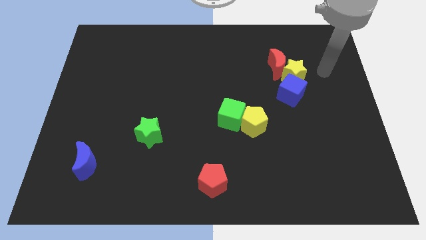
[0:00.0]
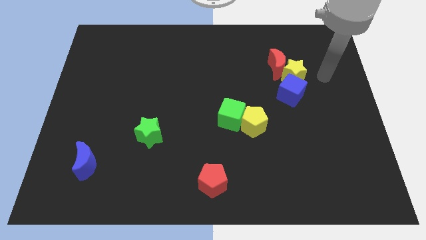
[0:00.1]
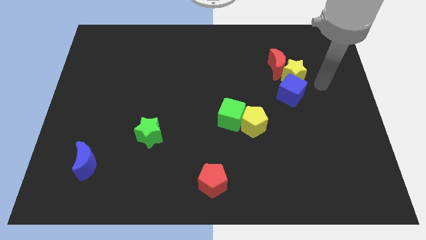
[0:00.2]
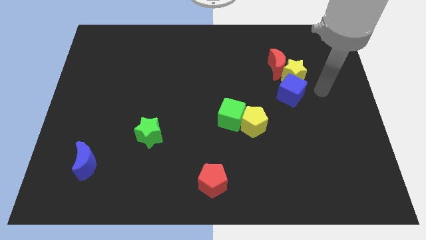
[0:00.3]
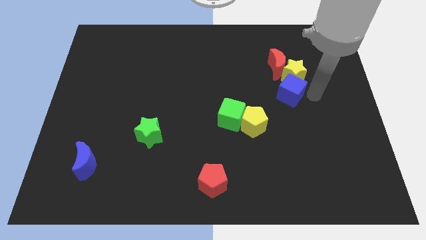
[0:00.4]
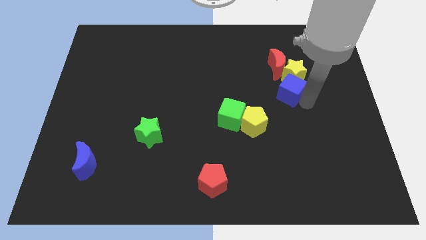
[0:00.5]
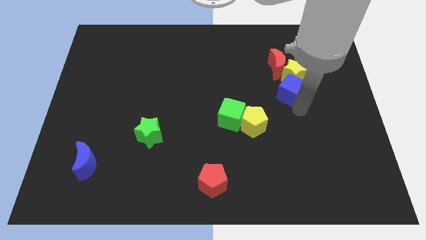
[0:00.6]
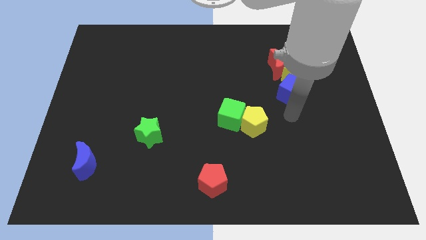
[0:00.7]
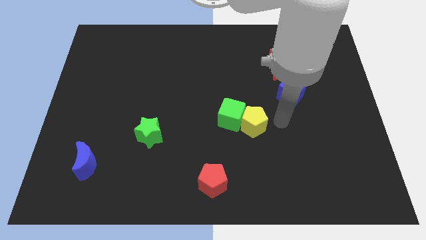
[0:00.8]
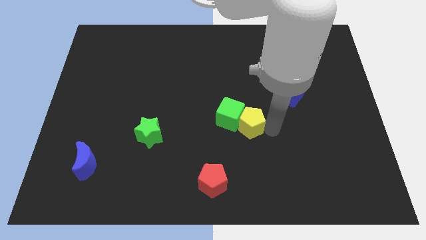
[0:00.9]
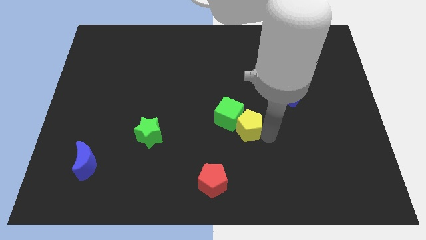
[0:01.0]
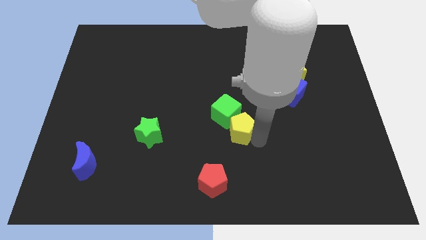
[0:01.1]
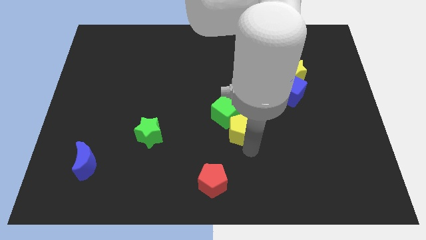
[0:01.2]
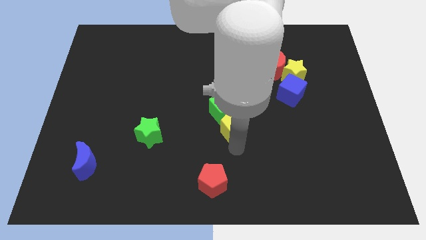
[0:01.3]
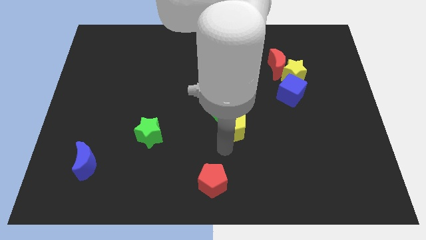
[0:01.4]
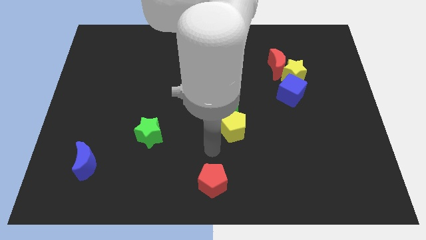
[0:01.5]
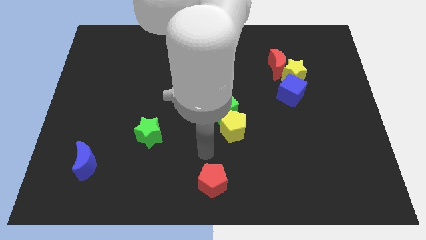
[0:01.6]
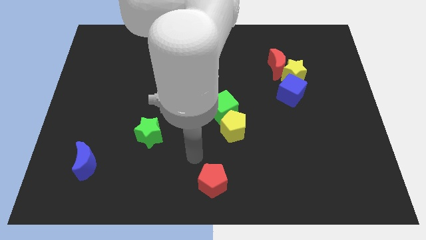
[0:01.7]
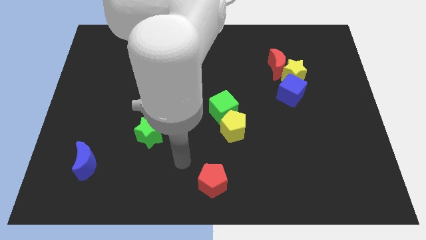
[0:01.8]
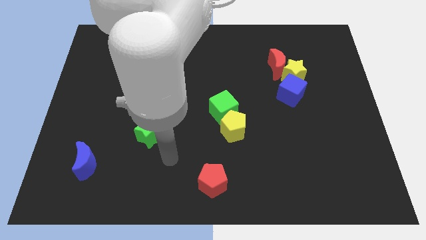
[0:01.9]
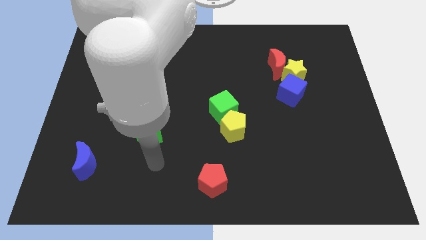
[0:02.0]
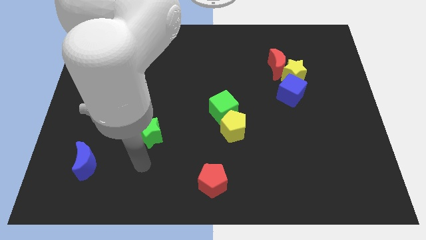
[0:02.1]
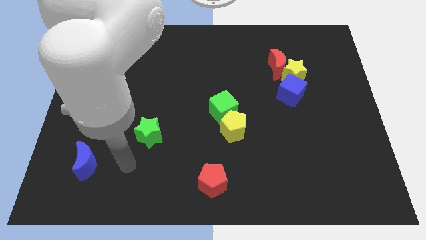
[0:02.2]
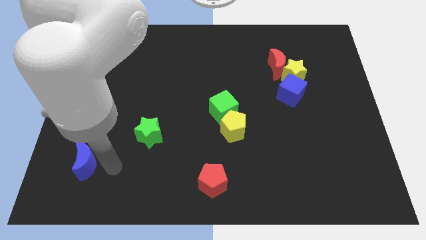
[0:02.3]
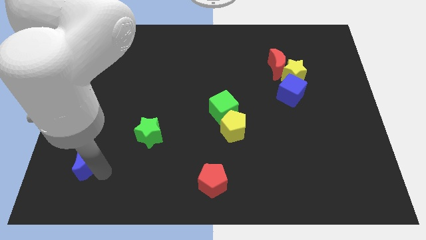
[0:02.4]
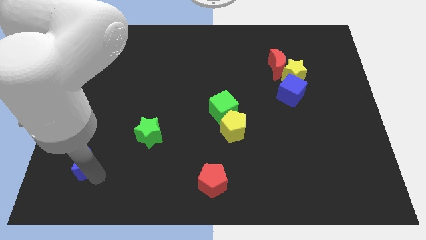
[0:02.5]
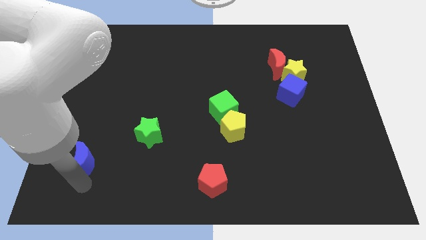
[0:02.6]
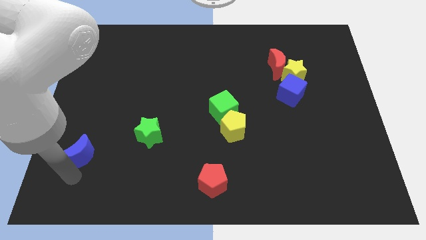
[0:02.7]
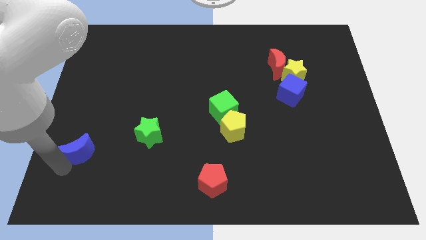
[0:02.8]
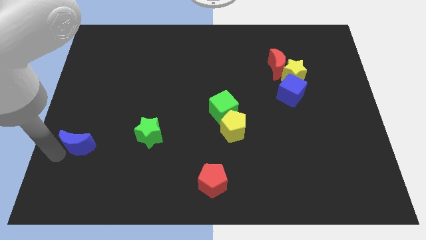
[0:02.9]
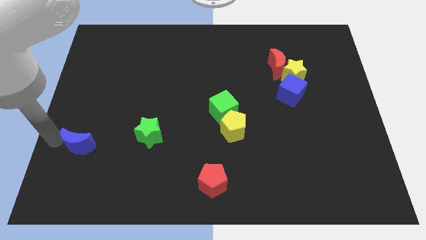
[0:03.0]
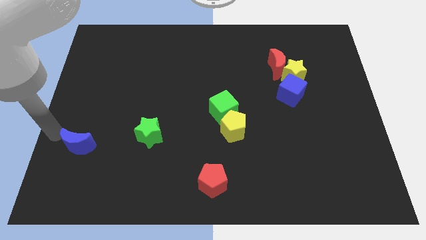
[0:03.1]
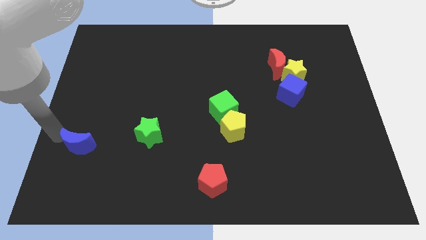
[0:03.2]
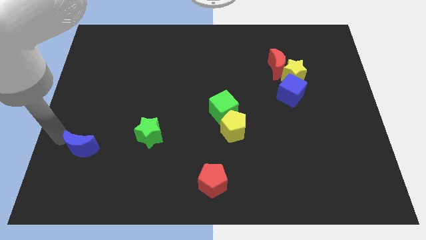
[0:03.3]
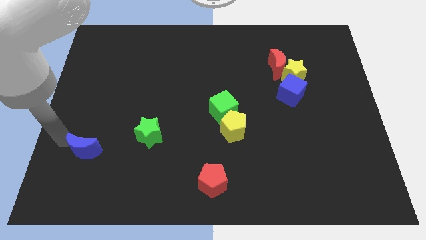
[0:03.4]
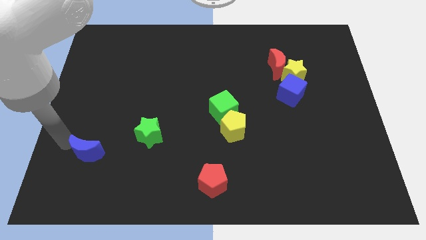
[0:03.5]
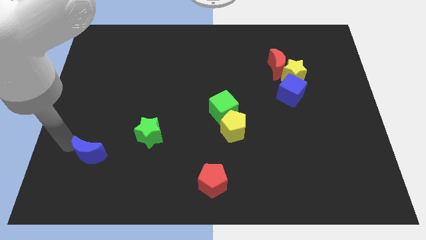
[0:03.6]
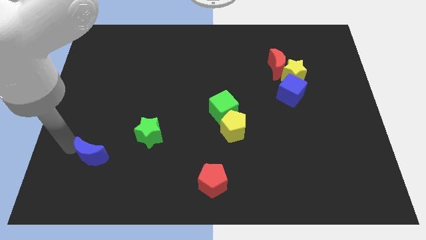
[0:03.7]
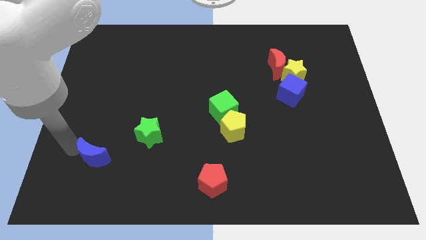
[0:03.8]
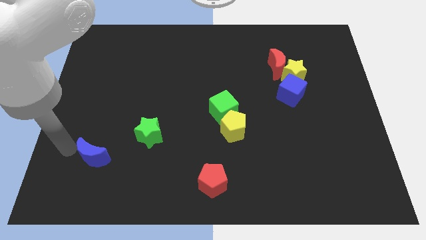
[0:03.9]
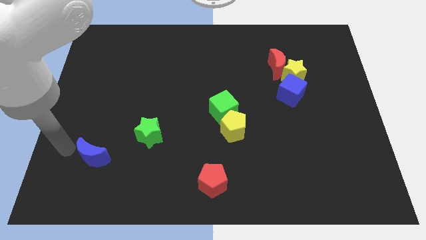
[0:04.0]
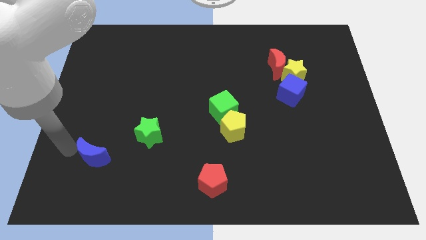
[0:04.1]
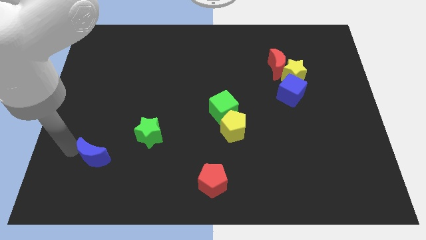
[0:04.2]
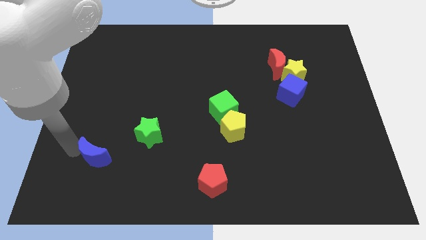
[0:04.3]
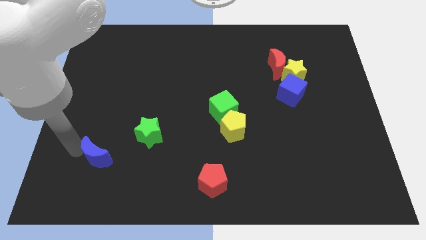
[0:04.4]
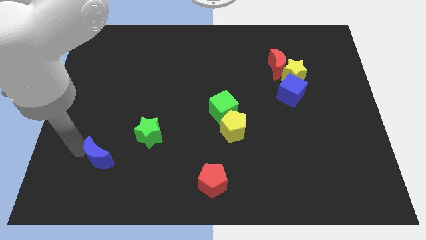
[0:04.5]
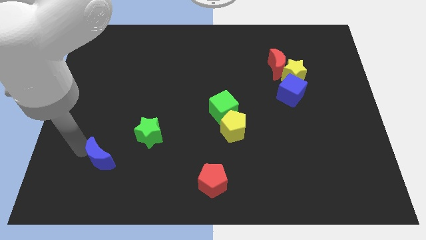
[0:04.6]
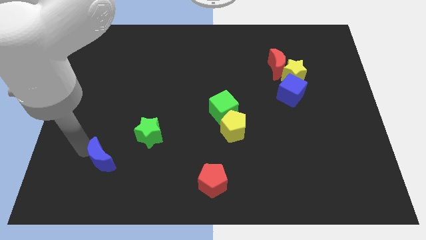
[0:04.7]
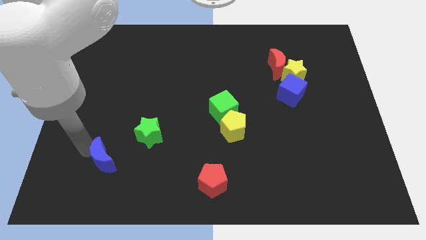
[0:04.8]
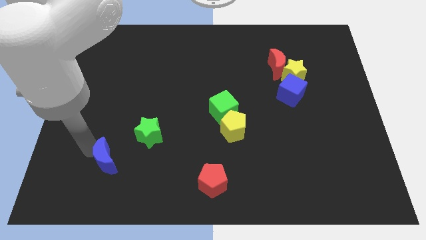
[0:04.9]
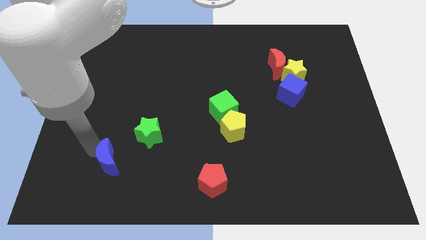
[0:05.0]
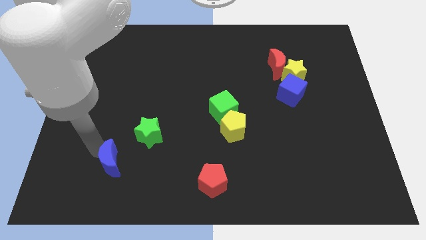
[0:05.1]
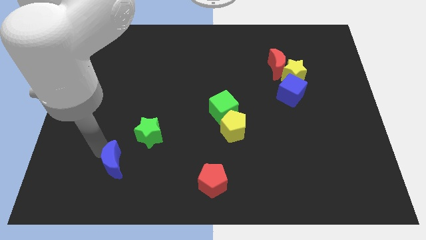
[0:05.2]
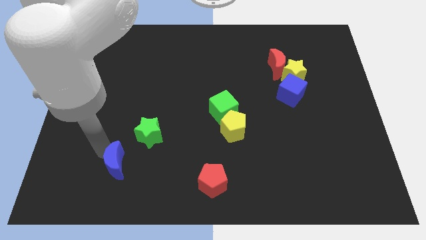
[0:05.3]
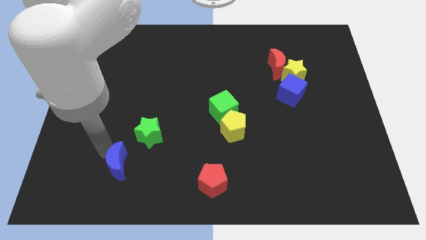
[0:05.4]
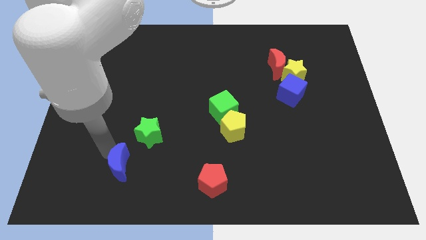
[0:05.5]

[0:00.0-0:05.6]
slightly push the blue moon to the right

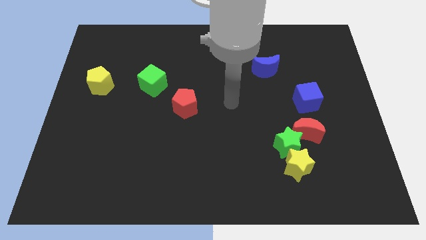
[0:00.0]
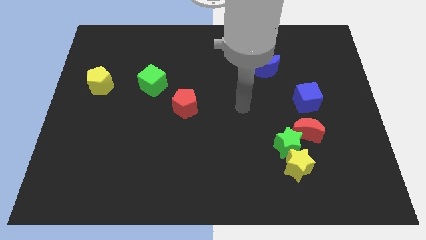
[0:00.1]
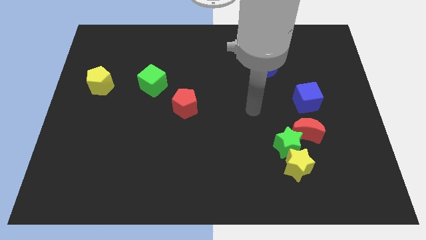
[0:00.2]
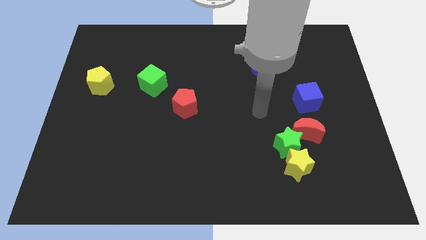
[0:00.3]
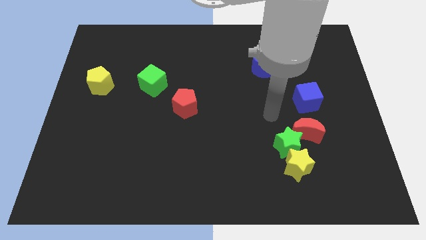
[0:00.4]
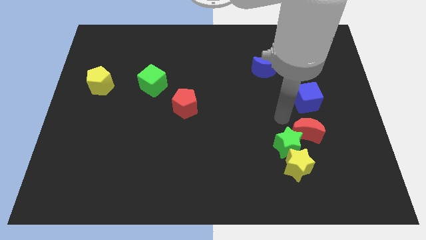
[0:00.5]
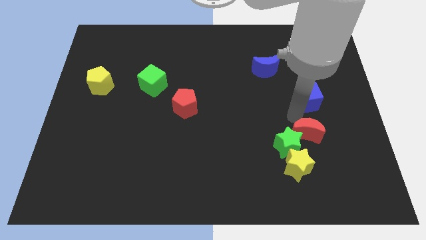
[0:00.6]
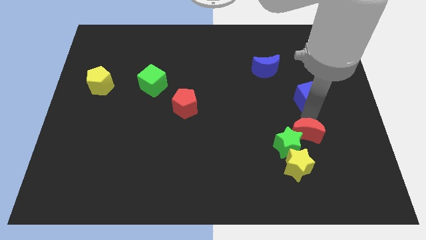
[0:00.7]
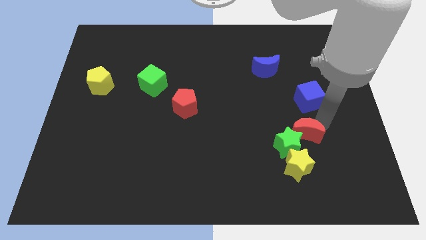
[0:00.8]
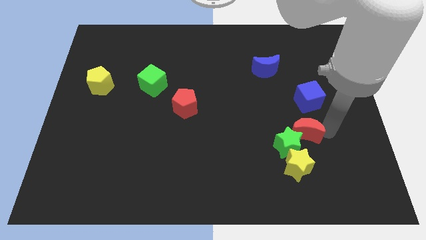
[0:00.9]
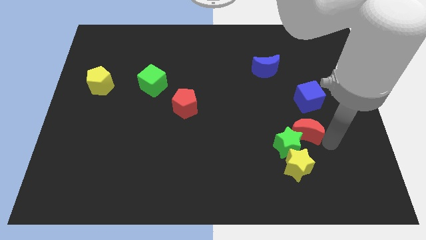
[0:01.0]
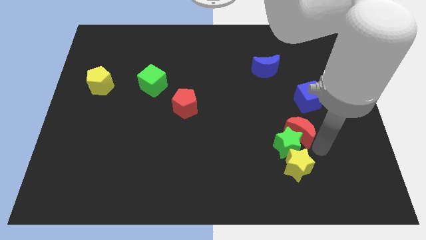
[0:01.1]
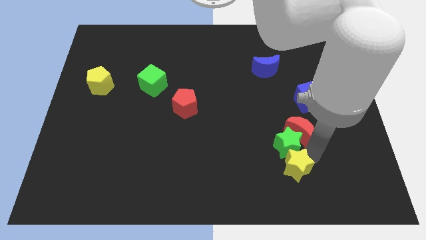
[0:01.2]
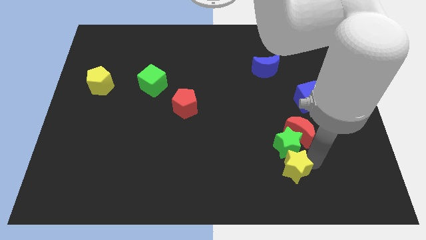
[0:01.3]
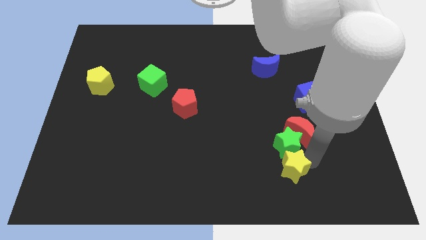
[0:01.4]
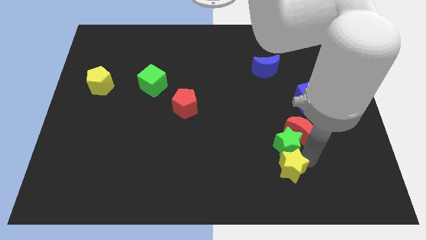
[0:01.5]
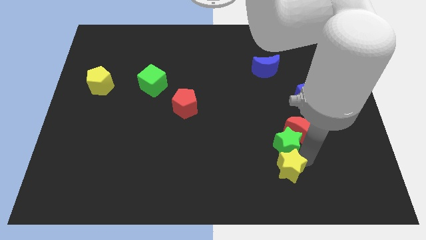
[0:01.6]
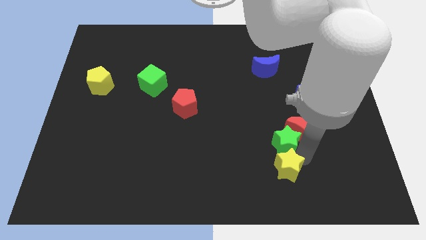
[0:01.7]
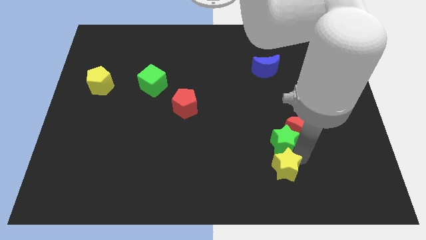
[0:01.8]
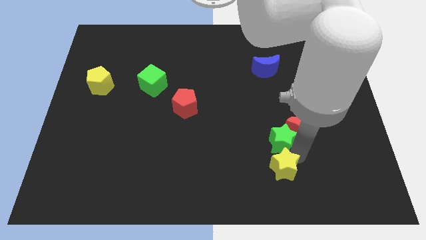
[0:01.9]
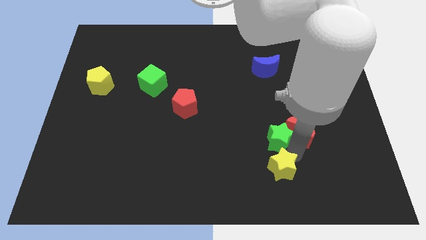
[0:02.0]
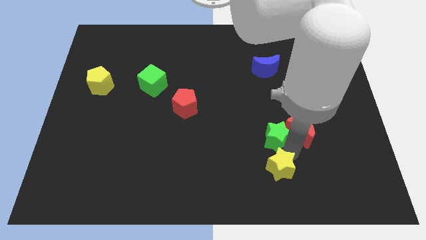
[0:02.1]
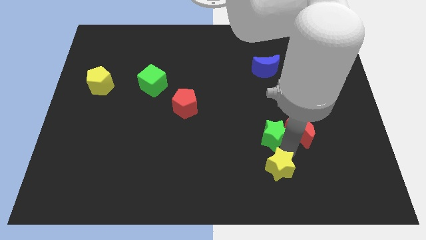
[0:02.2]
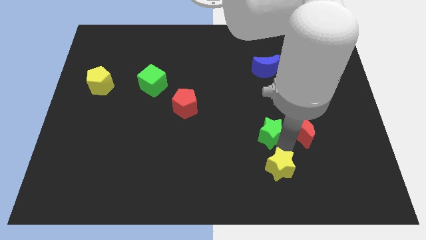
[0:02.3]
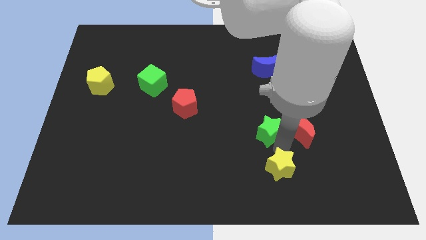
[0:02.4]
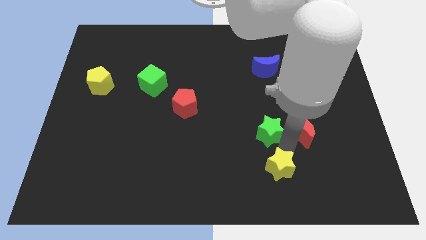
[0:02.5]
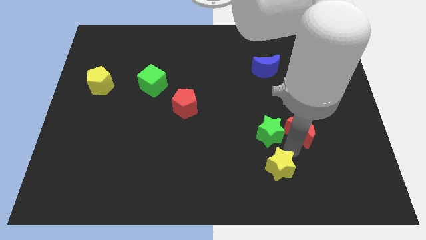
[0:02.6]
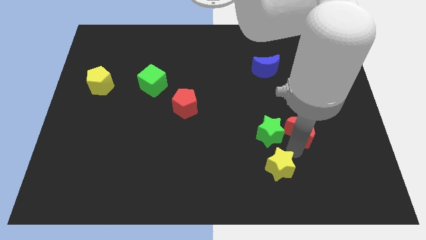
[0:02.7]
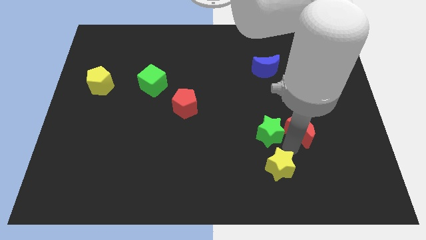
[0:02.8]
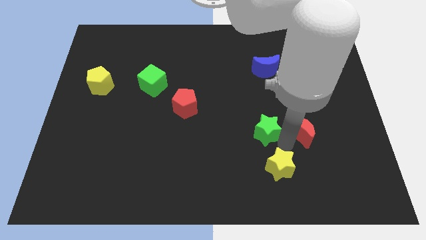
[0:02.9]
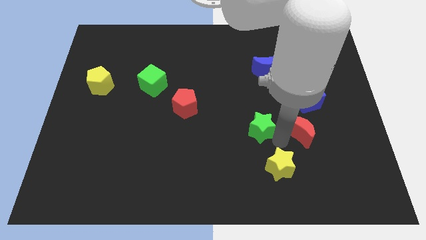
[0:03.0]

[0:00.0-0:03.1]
slightly push the green star upwards and left diagonally
